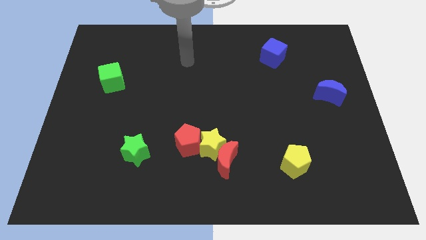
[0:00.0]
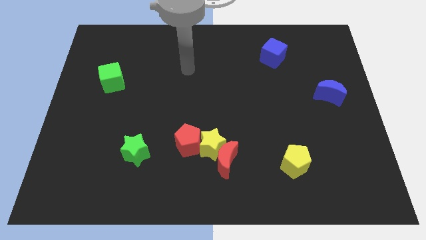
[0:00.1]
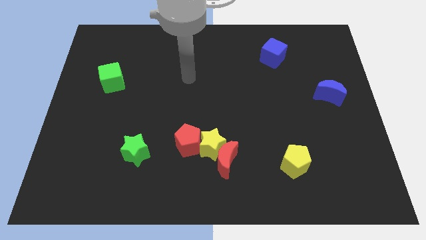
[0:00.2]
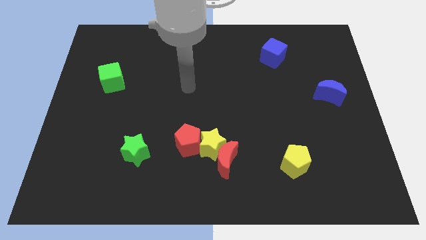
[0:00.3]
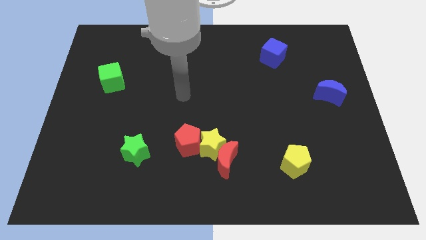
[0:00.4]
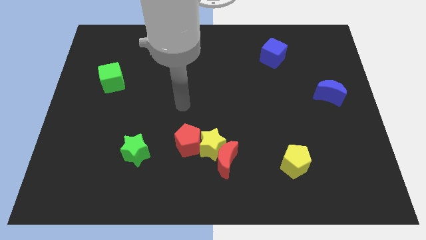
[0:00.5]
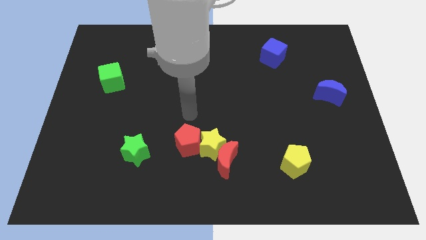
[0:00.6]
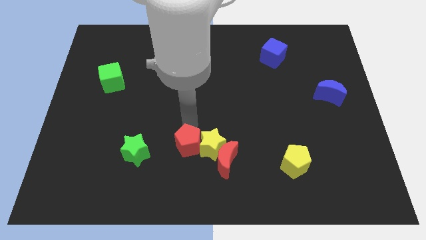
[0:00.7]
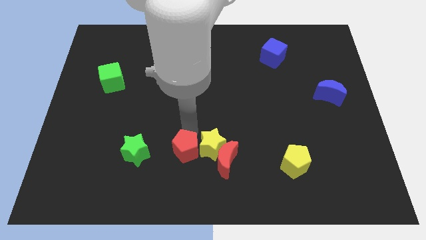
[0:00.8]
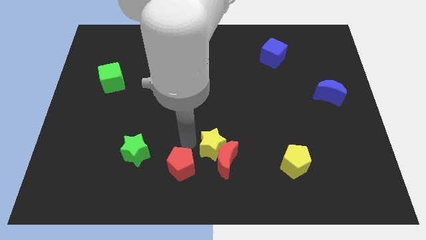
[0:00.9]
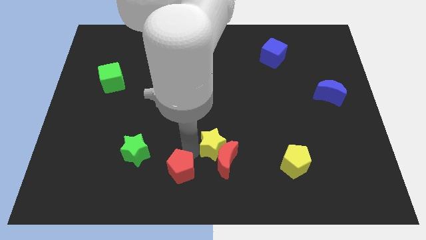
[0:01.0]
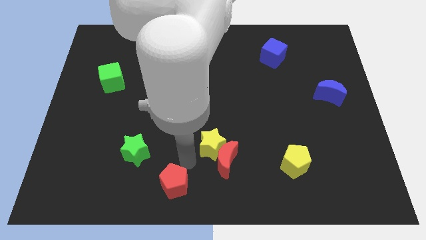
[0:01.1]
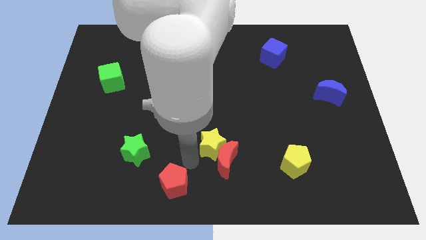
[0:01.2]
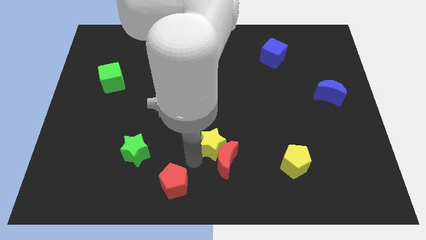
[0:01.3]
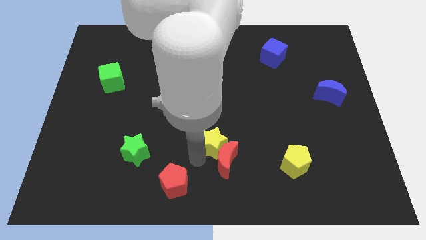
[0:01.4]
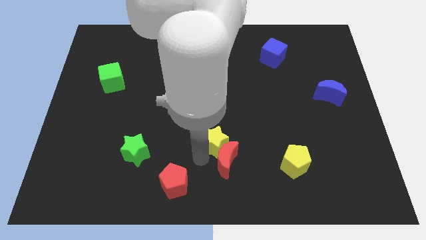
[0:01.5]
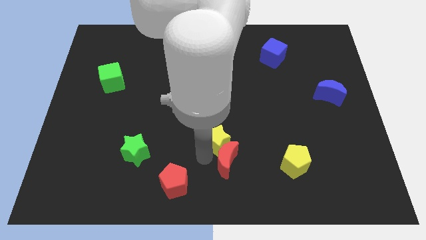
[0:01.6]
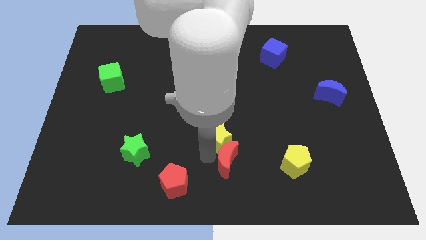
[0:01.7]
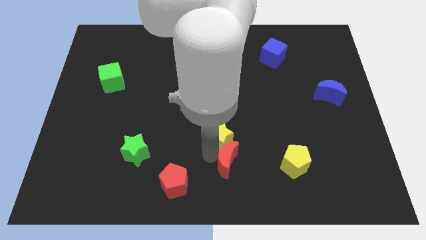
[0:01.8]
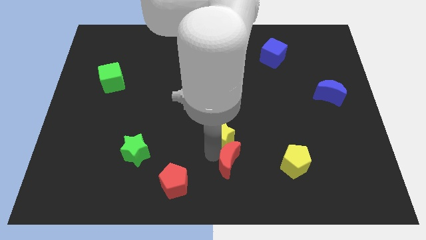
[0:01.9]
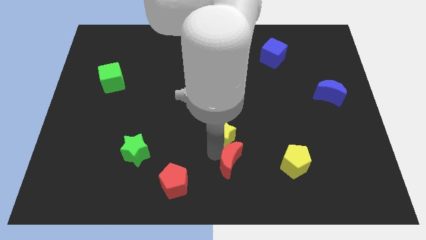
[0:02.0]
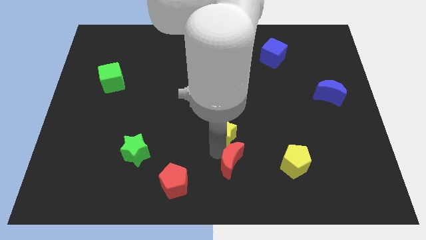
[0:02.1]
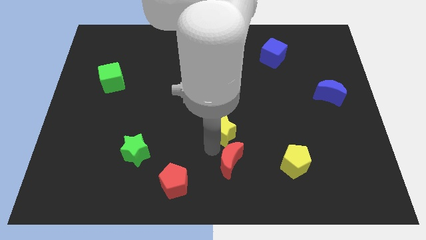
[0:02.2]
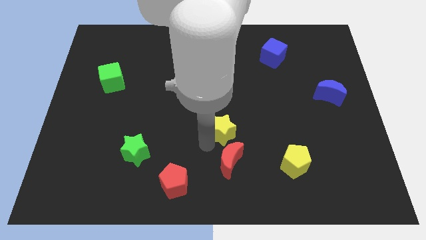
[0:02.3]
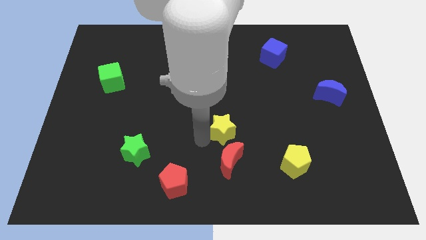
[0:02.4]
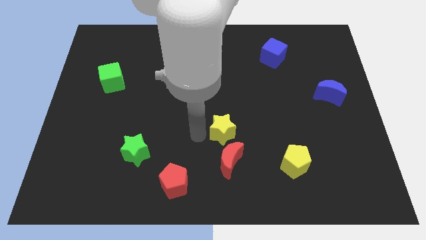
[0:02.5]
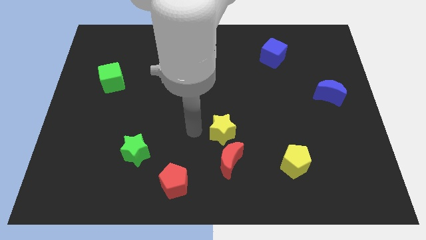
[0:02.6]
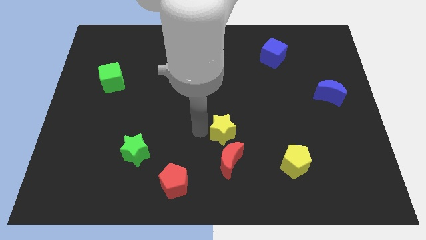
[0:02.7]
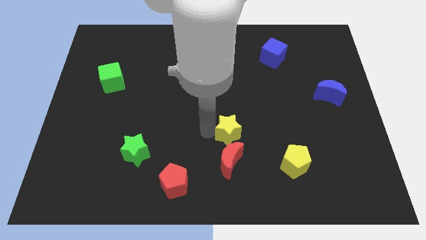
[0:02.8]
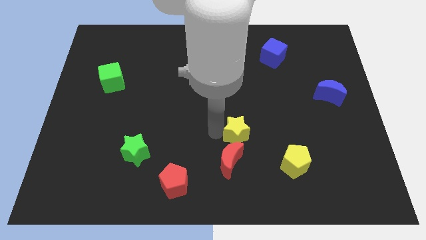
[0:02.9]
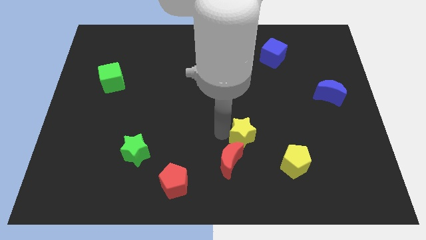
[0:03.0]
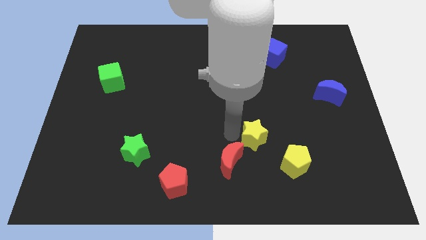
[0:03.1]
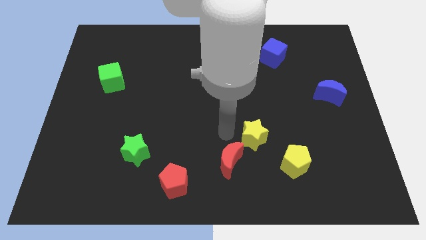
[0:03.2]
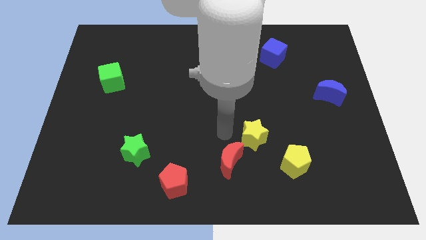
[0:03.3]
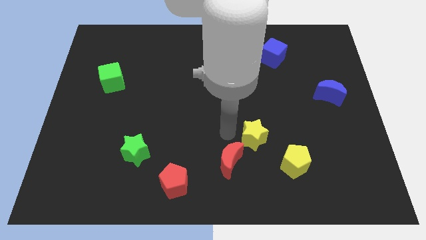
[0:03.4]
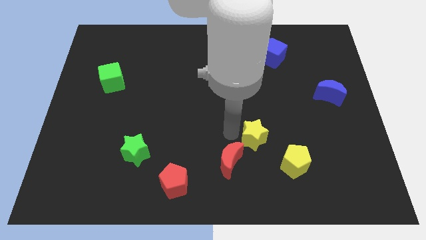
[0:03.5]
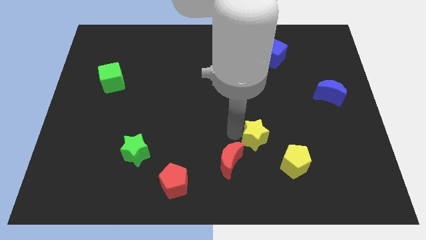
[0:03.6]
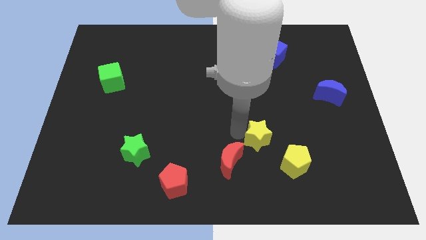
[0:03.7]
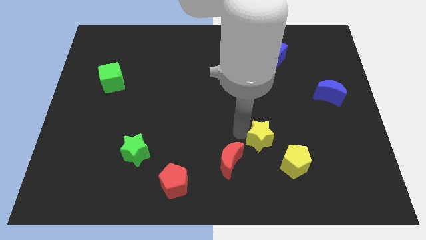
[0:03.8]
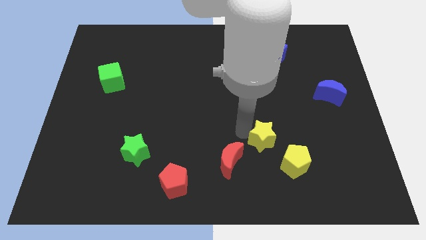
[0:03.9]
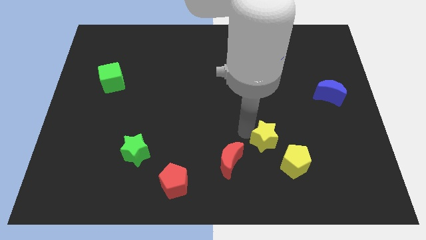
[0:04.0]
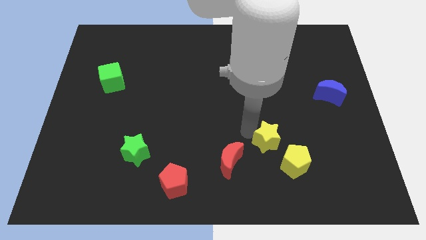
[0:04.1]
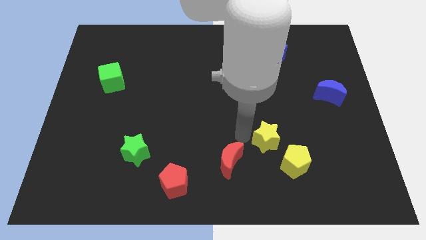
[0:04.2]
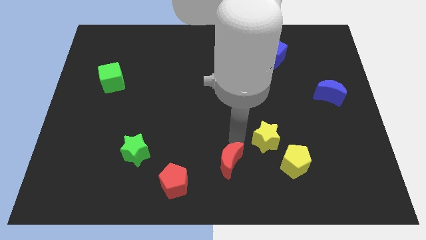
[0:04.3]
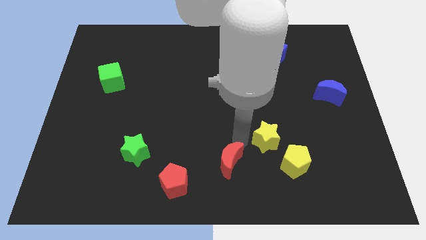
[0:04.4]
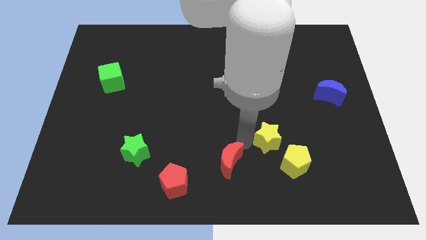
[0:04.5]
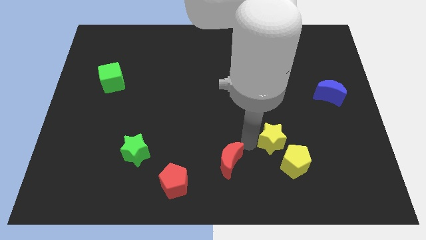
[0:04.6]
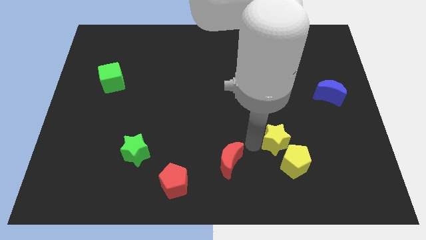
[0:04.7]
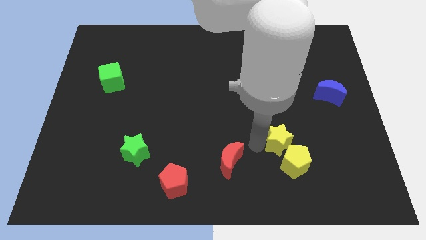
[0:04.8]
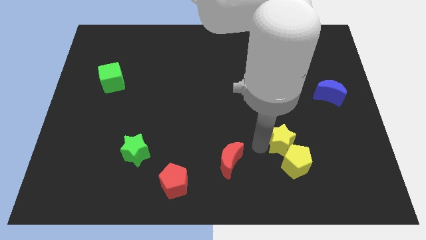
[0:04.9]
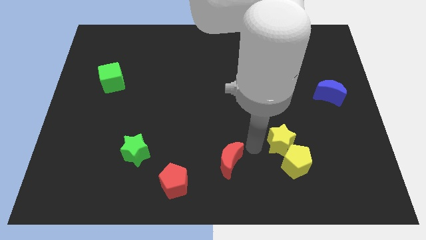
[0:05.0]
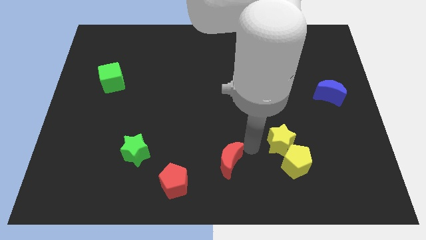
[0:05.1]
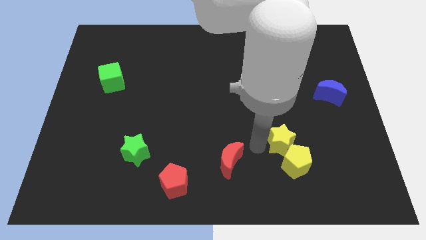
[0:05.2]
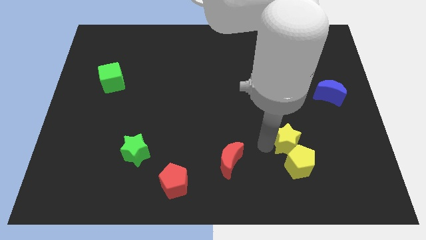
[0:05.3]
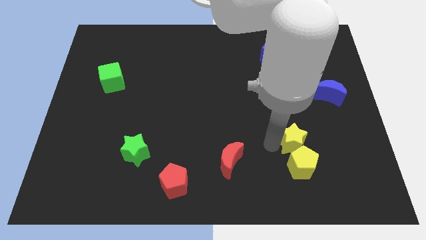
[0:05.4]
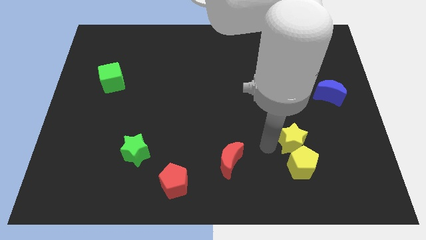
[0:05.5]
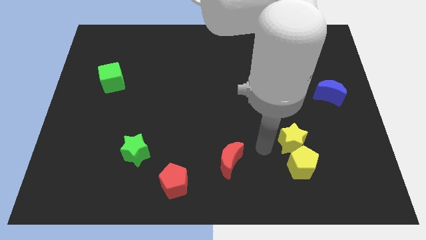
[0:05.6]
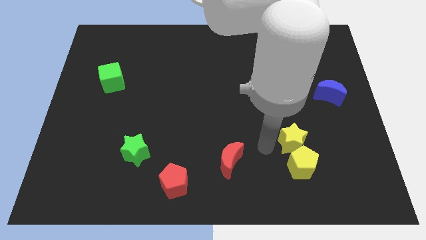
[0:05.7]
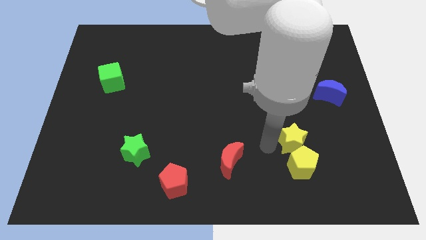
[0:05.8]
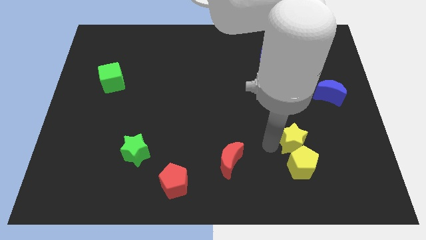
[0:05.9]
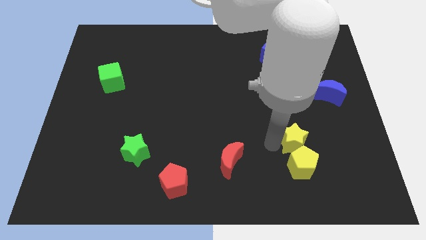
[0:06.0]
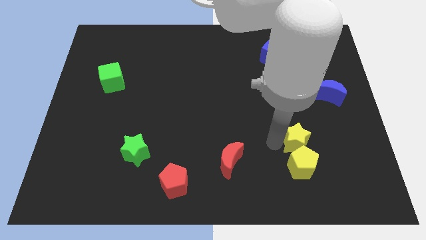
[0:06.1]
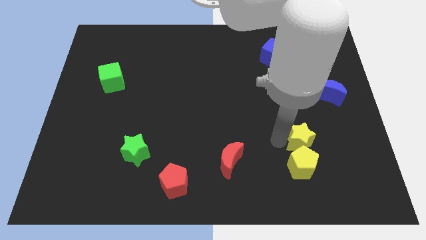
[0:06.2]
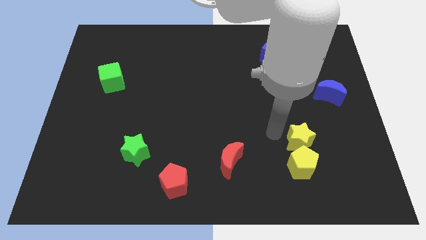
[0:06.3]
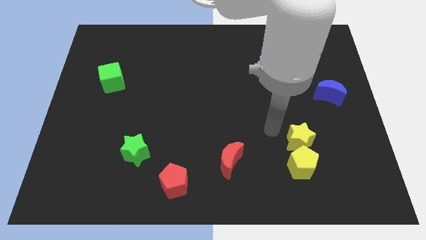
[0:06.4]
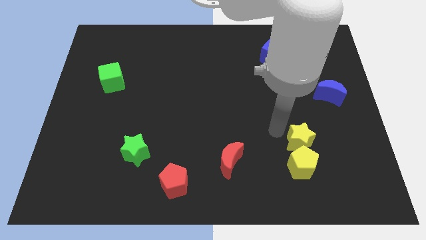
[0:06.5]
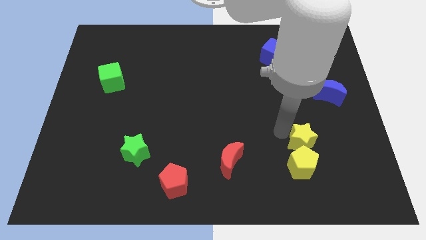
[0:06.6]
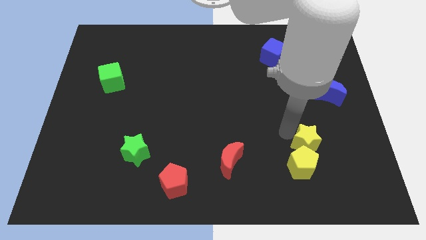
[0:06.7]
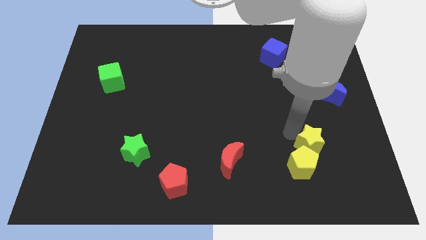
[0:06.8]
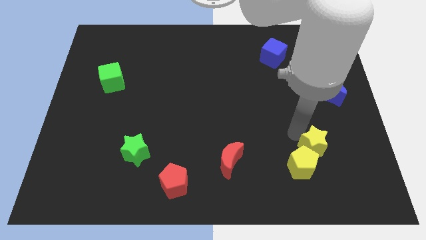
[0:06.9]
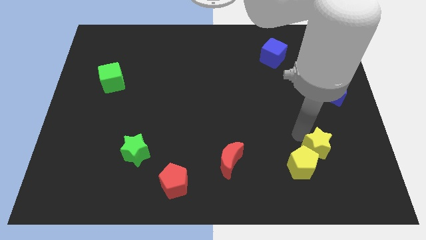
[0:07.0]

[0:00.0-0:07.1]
put the yellow star to the right side of the yellow pentagon
